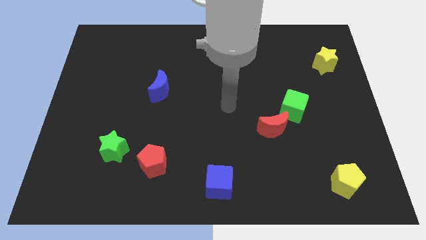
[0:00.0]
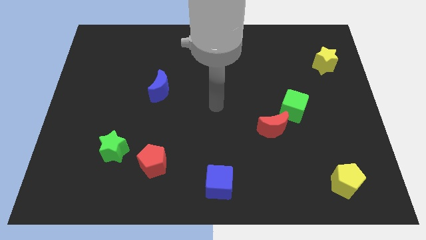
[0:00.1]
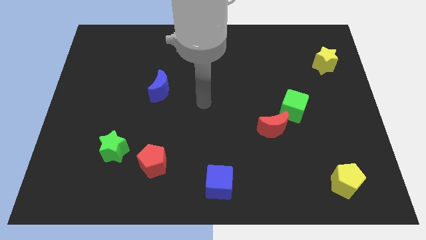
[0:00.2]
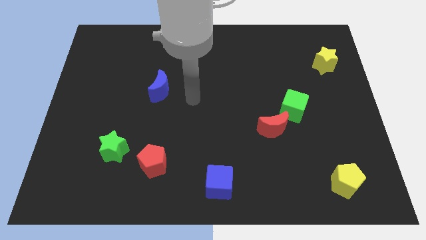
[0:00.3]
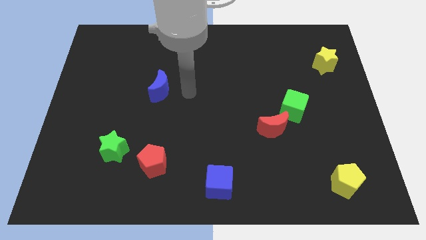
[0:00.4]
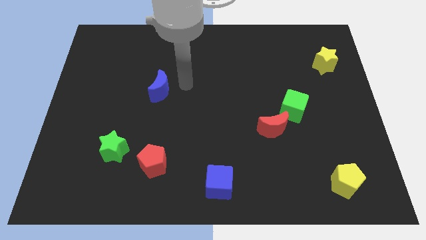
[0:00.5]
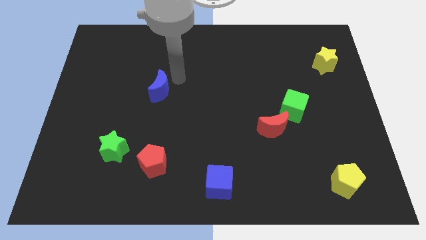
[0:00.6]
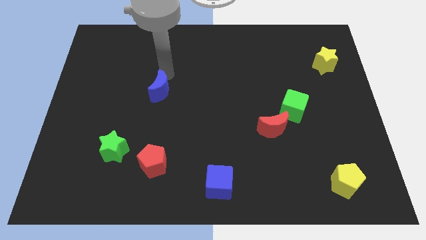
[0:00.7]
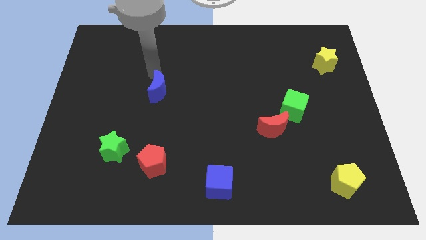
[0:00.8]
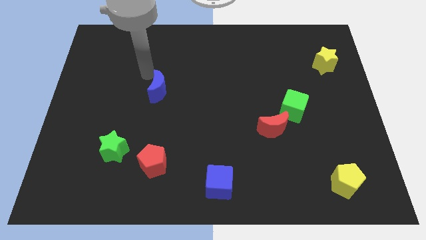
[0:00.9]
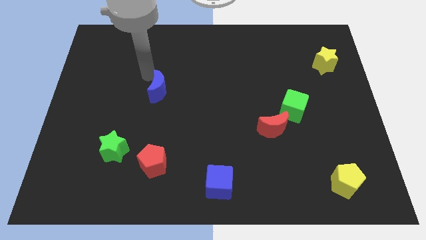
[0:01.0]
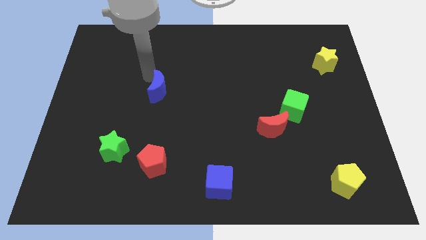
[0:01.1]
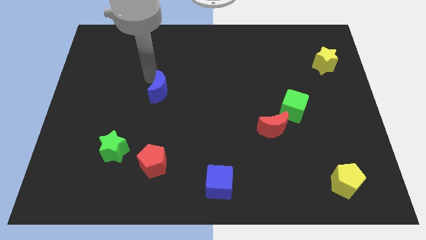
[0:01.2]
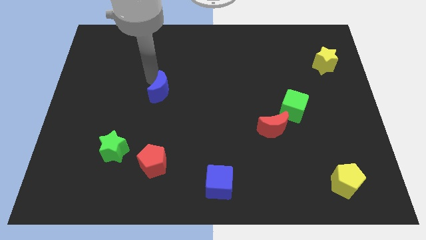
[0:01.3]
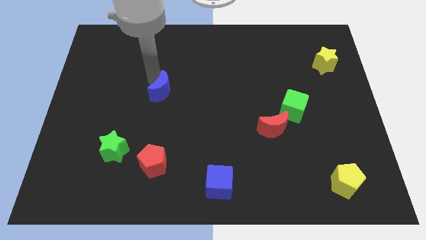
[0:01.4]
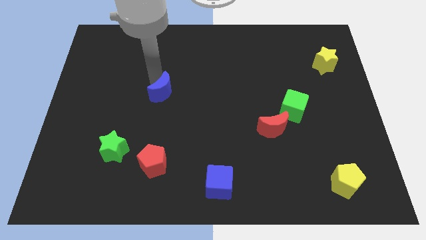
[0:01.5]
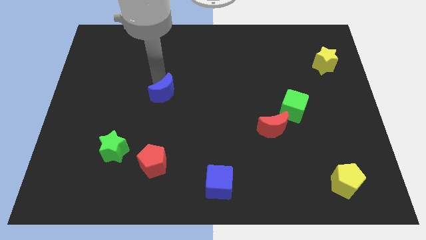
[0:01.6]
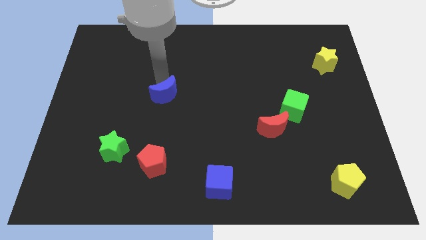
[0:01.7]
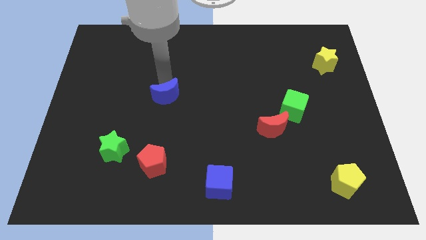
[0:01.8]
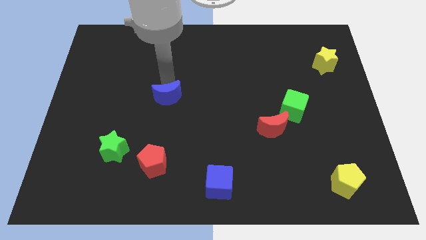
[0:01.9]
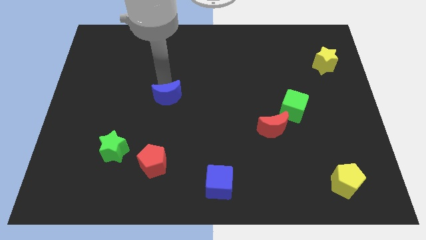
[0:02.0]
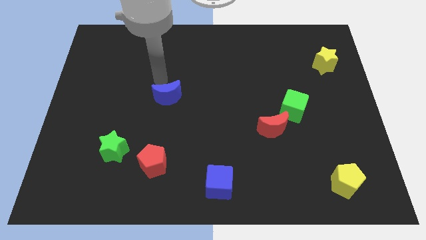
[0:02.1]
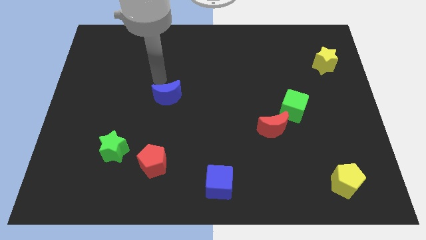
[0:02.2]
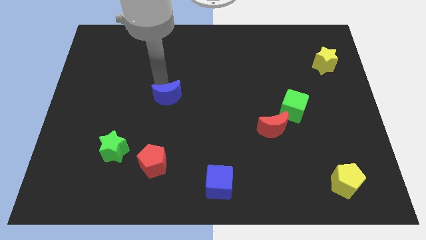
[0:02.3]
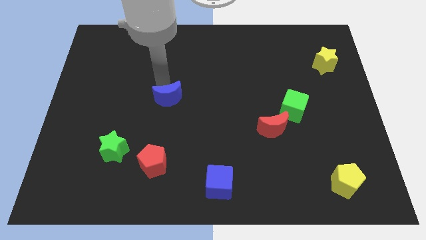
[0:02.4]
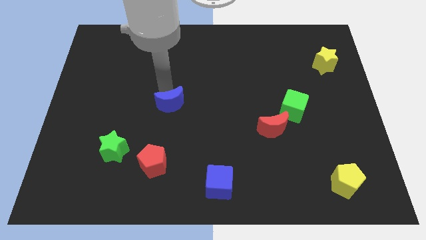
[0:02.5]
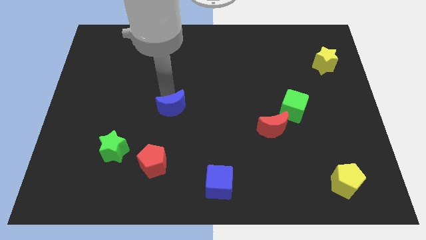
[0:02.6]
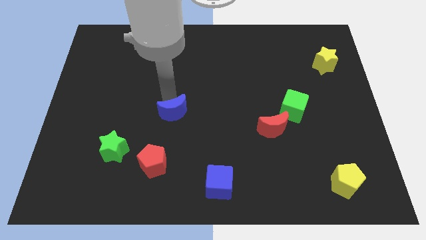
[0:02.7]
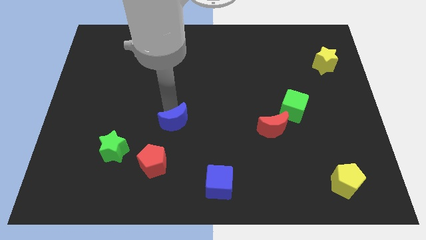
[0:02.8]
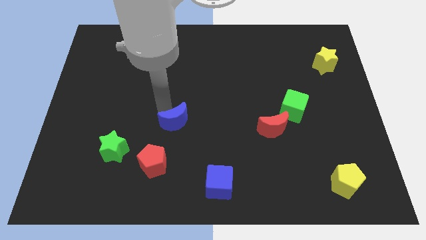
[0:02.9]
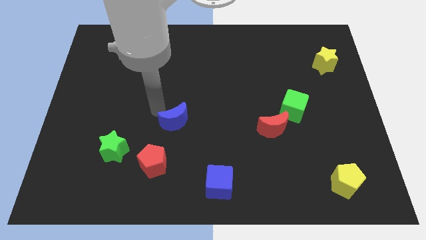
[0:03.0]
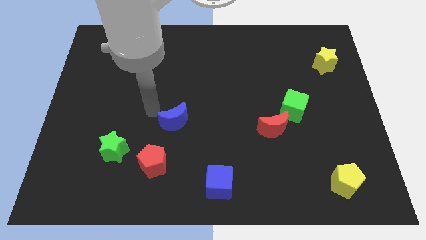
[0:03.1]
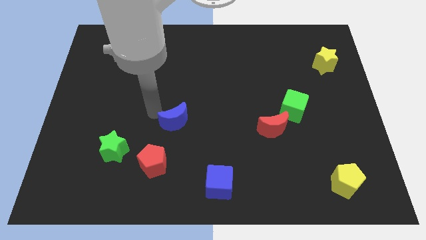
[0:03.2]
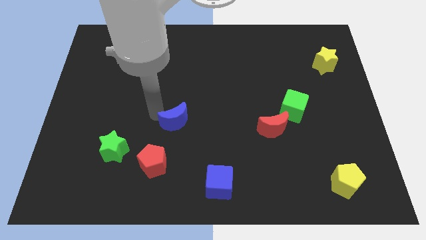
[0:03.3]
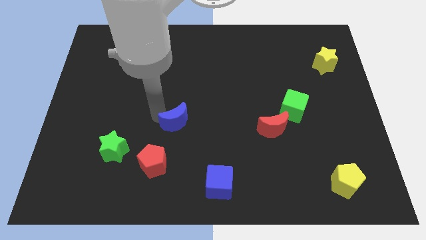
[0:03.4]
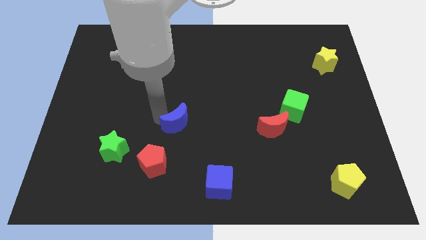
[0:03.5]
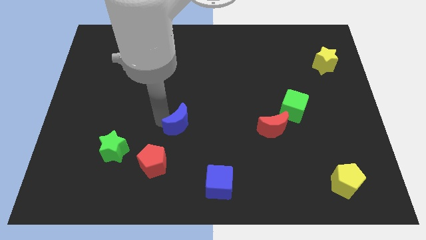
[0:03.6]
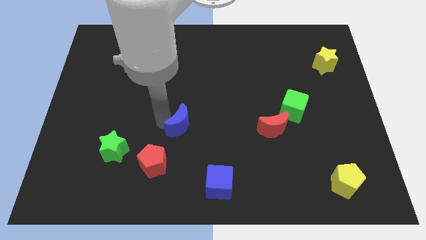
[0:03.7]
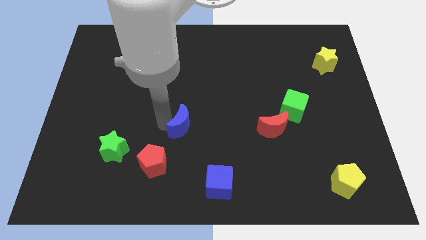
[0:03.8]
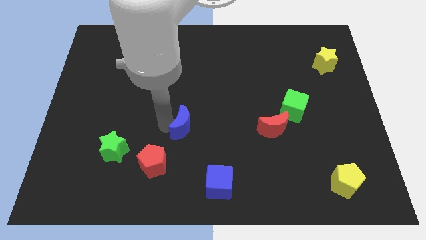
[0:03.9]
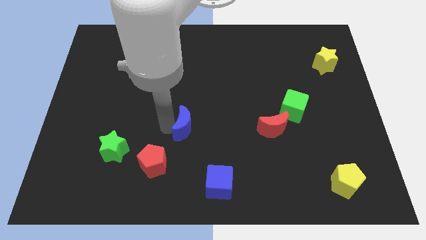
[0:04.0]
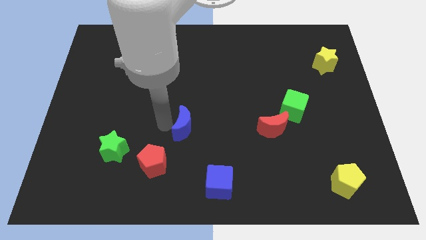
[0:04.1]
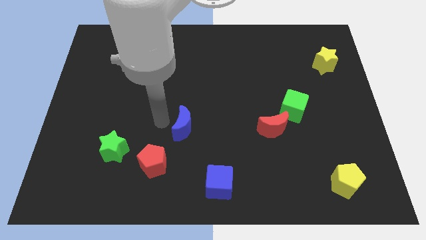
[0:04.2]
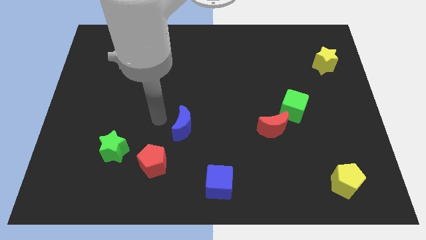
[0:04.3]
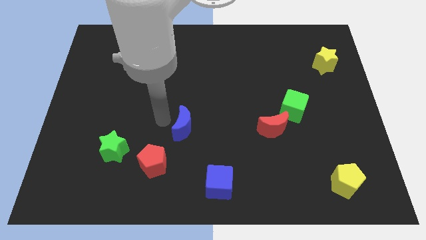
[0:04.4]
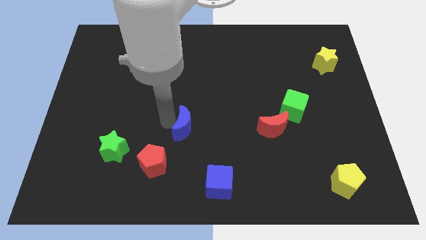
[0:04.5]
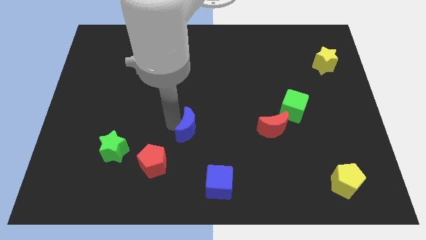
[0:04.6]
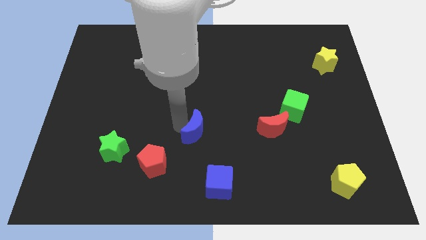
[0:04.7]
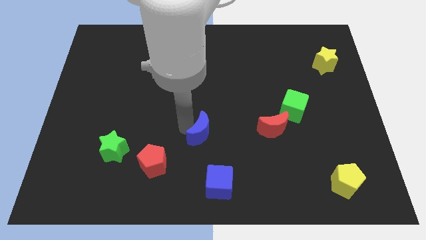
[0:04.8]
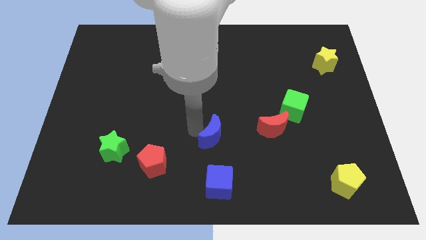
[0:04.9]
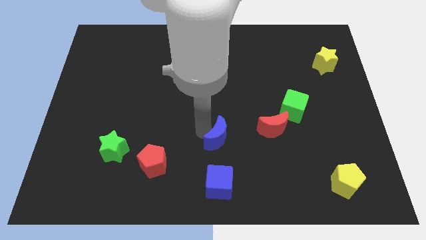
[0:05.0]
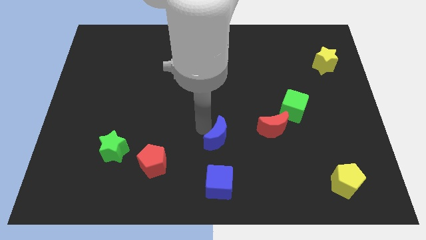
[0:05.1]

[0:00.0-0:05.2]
slide the blue moon downwards and to the right diagonally

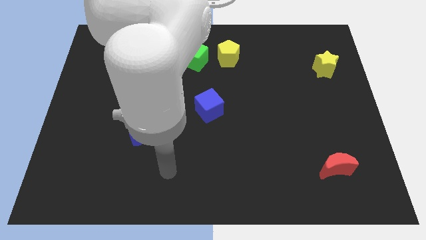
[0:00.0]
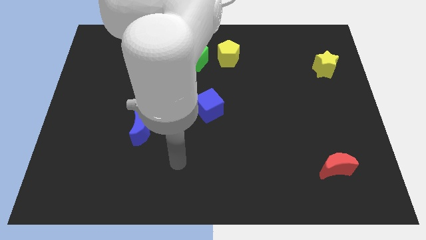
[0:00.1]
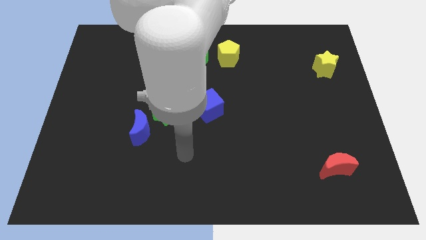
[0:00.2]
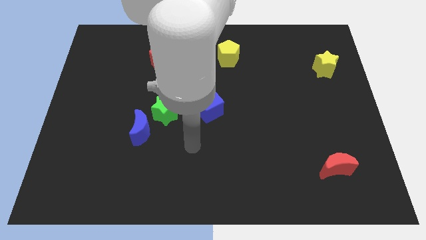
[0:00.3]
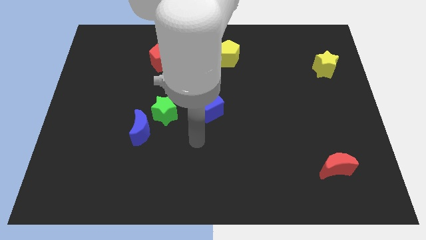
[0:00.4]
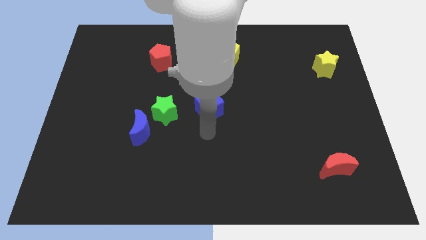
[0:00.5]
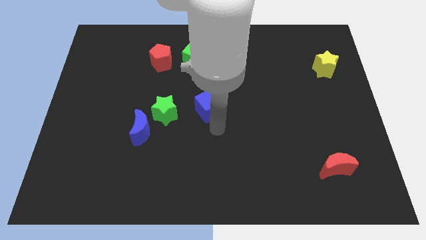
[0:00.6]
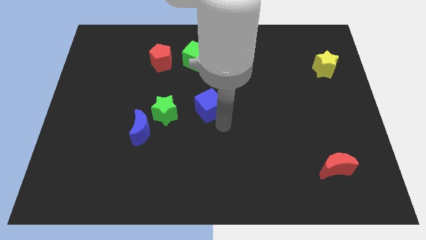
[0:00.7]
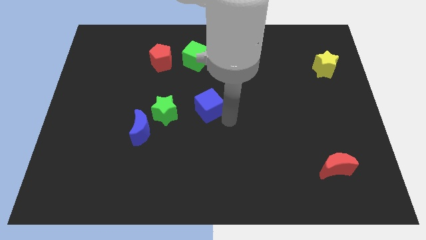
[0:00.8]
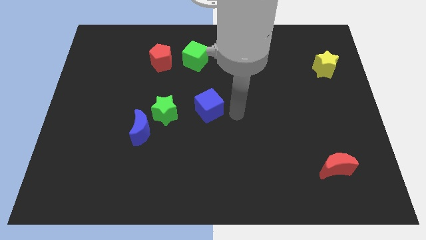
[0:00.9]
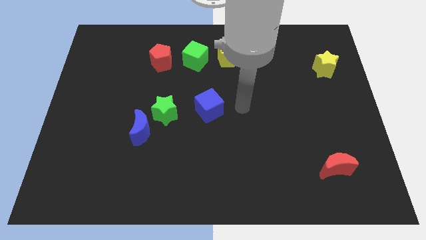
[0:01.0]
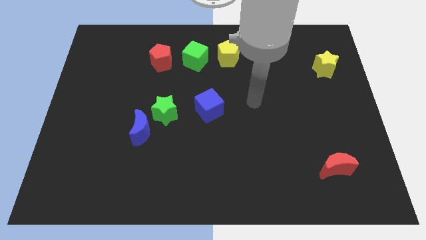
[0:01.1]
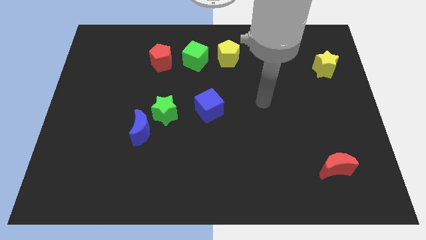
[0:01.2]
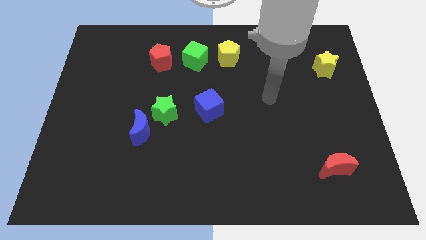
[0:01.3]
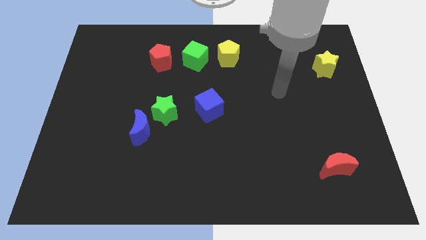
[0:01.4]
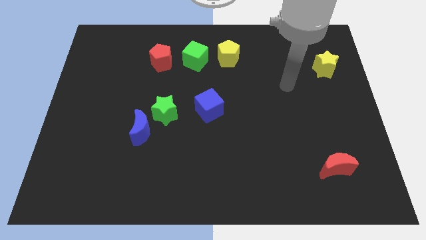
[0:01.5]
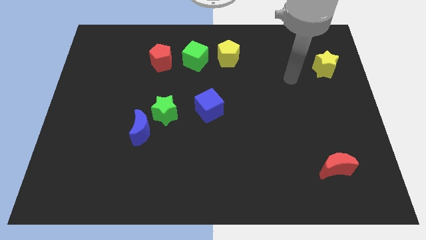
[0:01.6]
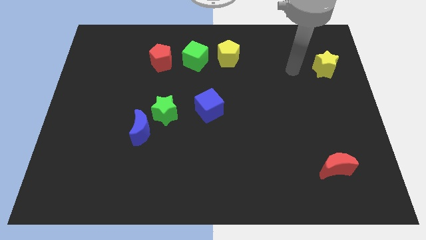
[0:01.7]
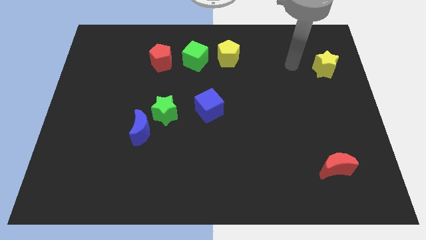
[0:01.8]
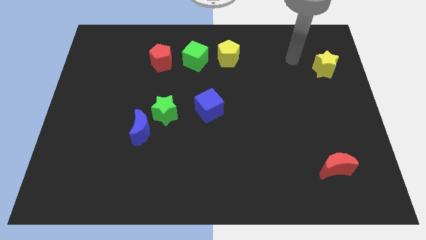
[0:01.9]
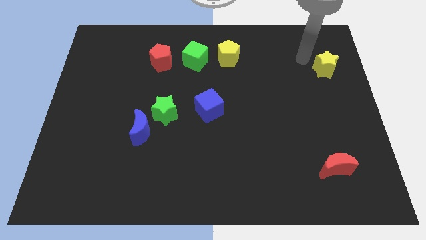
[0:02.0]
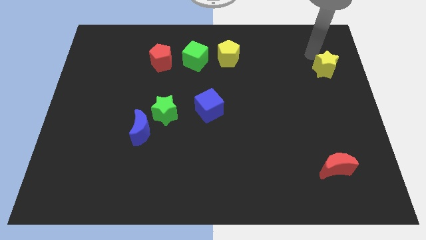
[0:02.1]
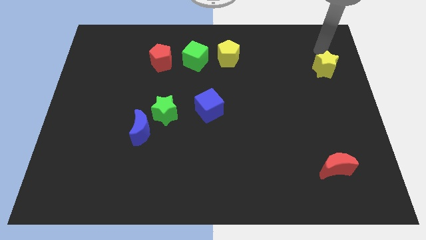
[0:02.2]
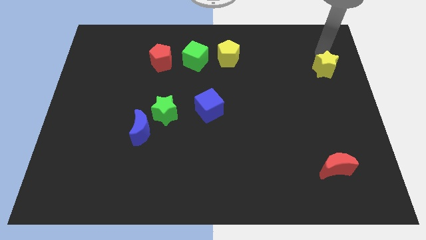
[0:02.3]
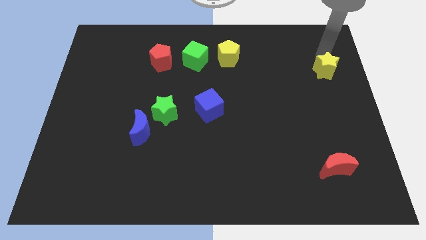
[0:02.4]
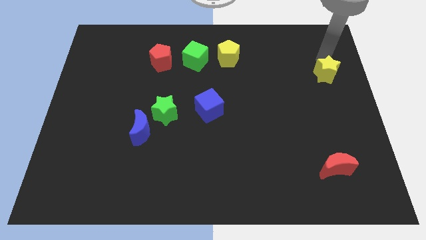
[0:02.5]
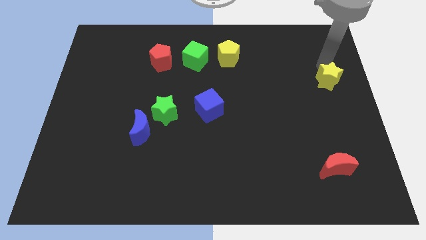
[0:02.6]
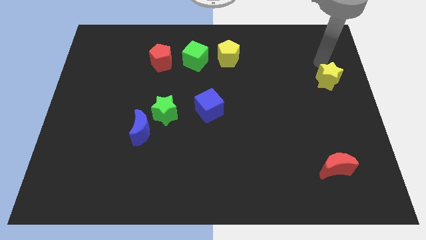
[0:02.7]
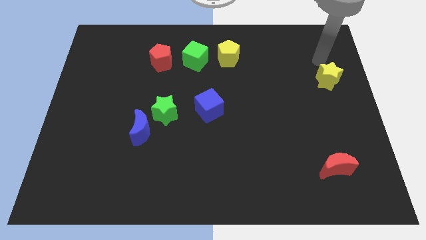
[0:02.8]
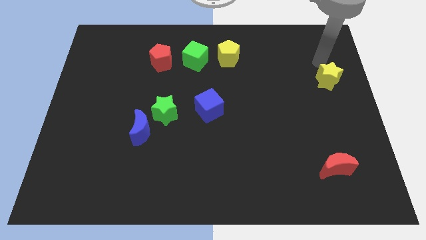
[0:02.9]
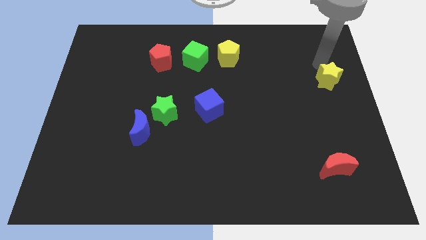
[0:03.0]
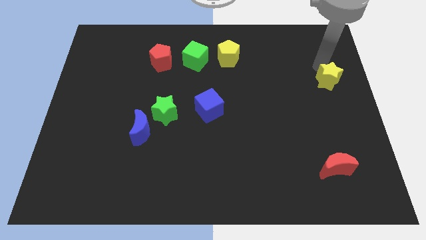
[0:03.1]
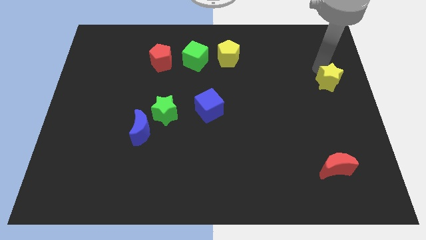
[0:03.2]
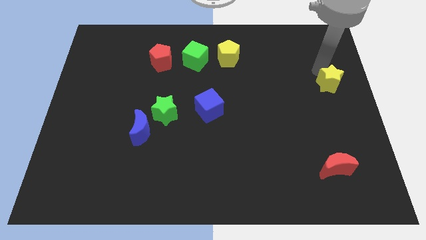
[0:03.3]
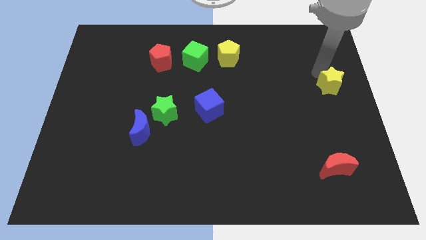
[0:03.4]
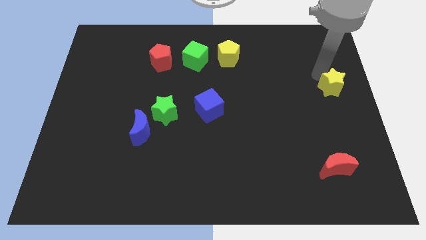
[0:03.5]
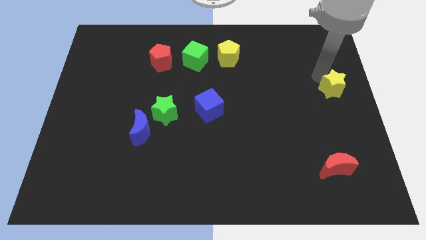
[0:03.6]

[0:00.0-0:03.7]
slightly slide the yellow star down
